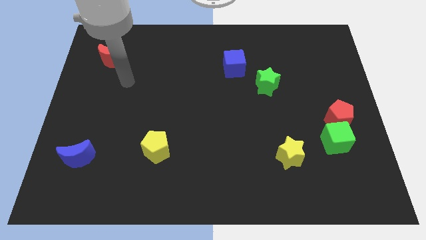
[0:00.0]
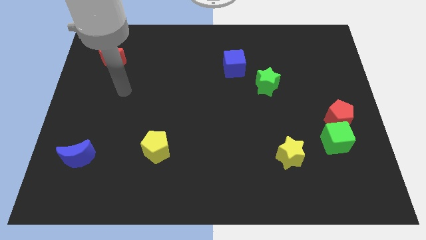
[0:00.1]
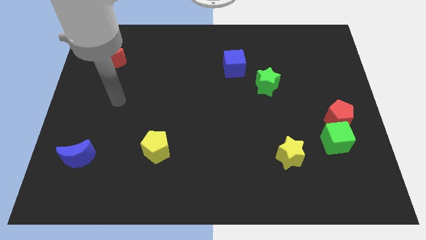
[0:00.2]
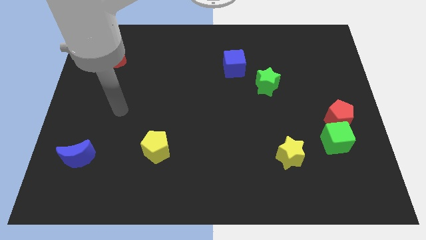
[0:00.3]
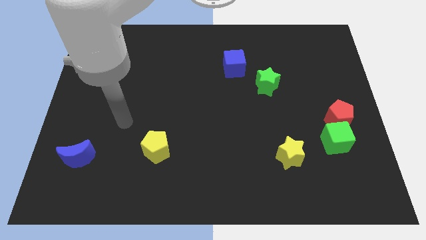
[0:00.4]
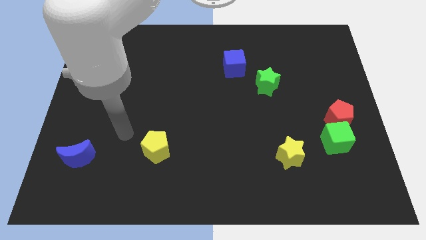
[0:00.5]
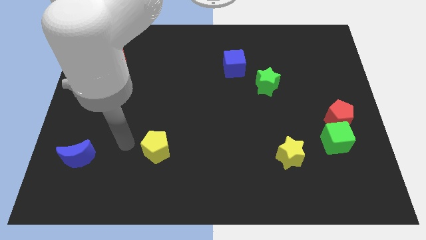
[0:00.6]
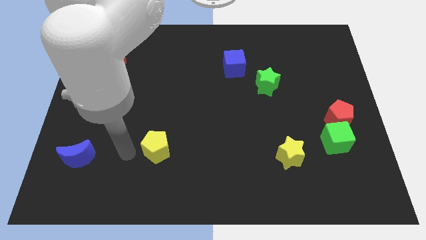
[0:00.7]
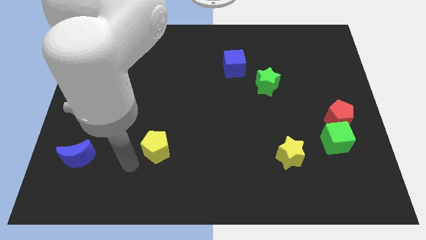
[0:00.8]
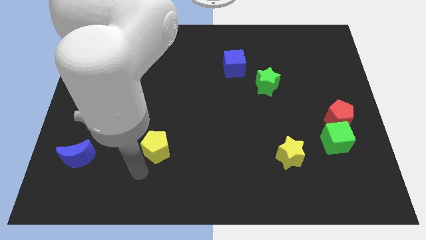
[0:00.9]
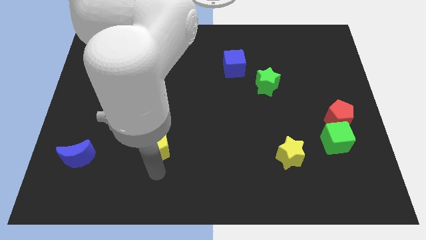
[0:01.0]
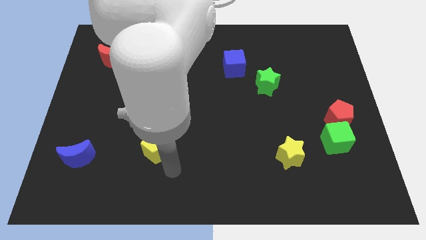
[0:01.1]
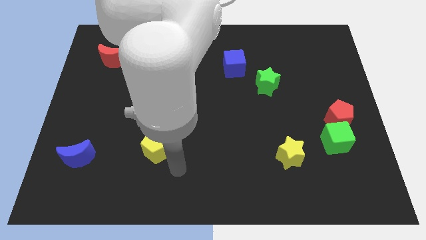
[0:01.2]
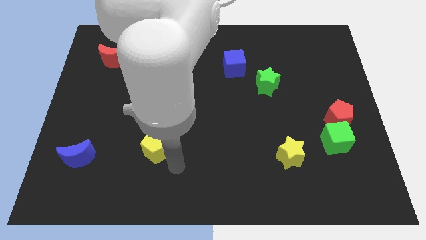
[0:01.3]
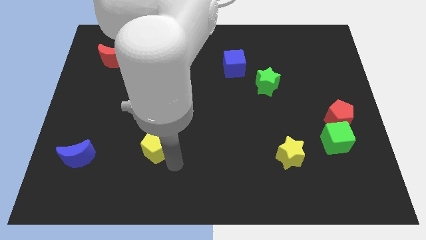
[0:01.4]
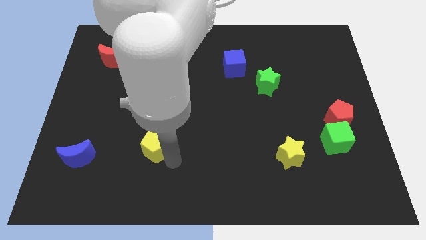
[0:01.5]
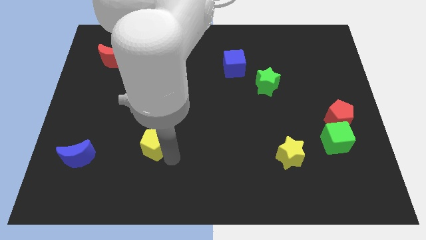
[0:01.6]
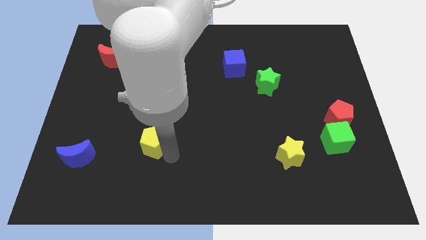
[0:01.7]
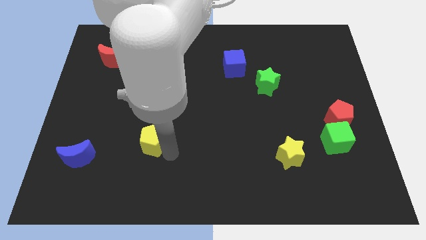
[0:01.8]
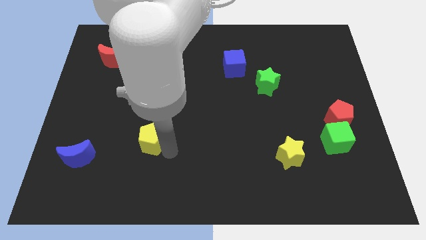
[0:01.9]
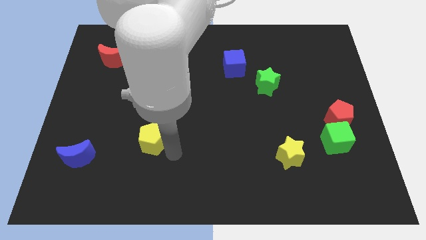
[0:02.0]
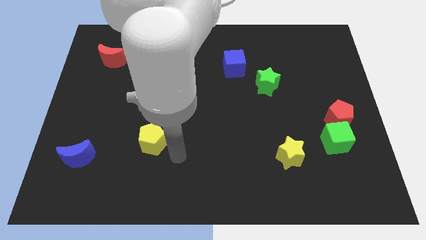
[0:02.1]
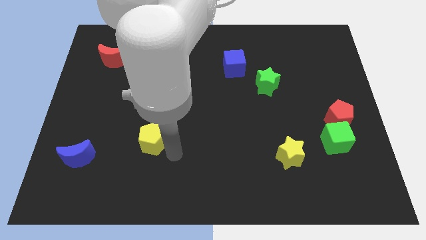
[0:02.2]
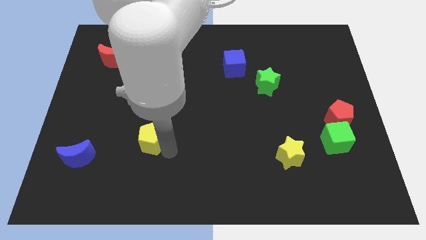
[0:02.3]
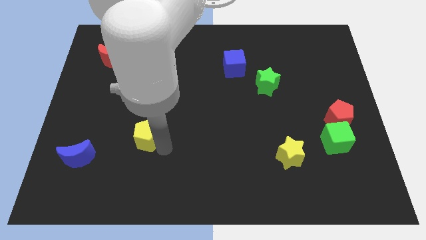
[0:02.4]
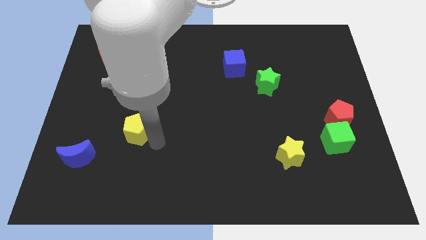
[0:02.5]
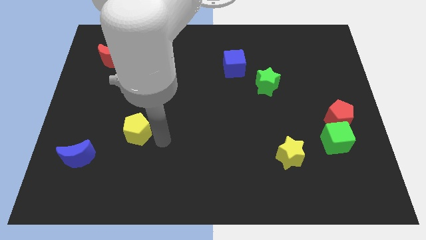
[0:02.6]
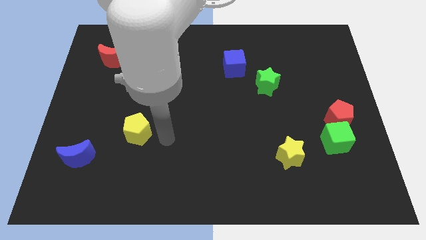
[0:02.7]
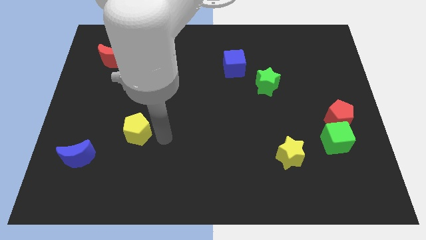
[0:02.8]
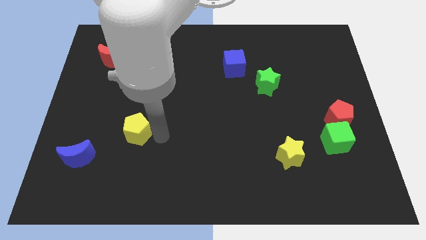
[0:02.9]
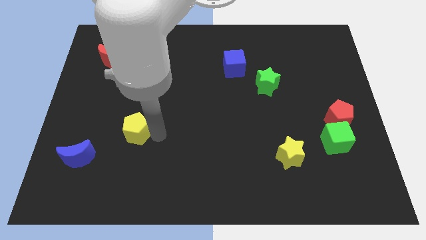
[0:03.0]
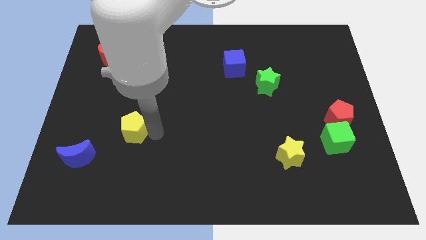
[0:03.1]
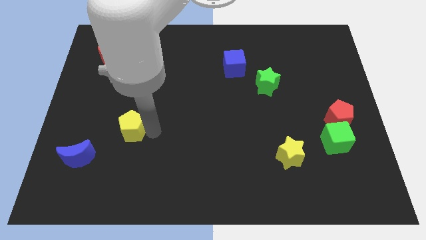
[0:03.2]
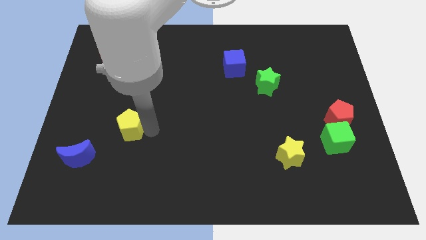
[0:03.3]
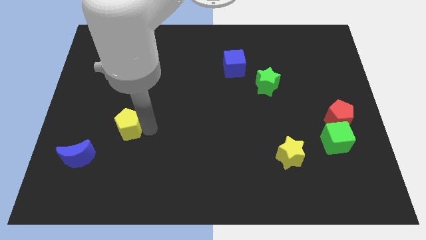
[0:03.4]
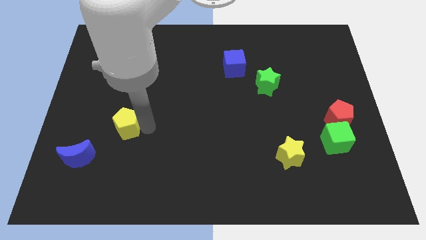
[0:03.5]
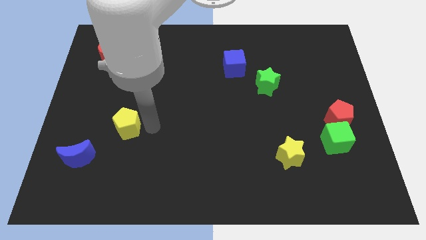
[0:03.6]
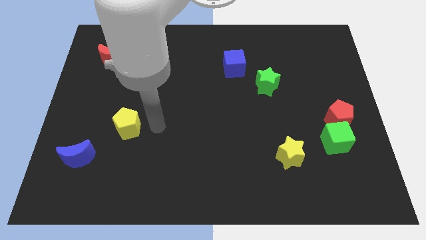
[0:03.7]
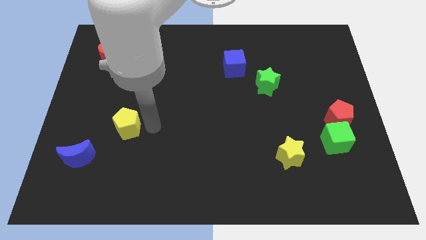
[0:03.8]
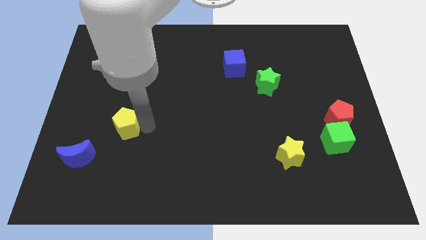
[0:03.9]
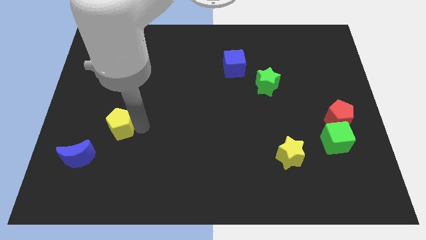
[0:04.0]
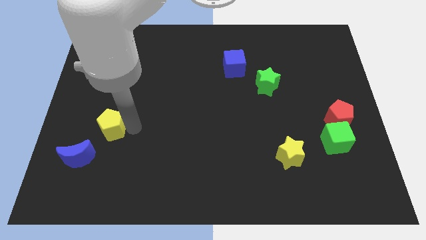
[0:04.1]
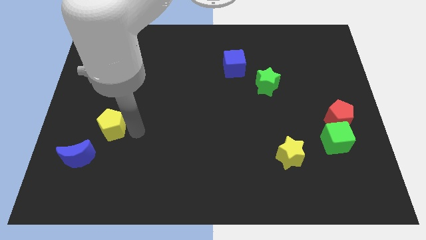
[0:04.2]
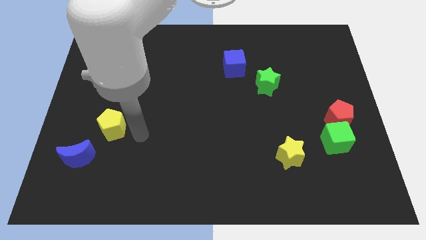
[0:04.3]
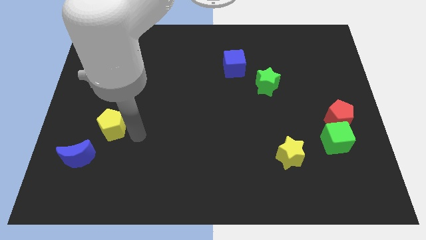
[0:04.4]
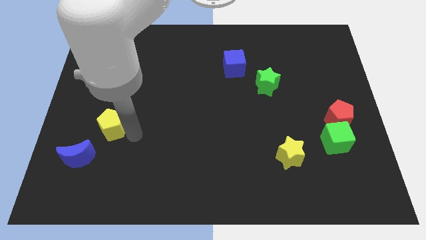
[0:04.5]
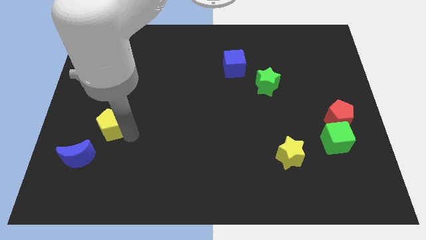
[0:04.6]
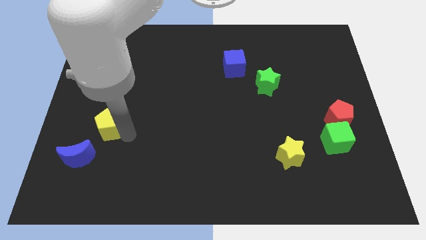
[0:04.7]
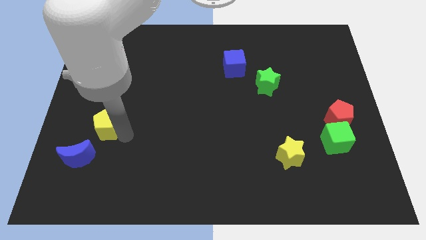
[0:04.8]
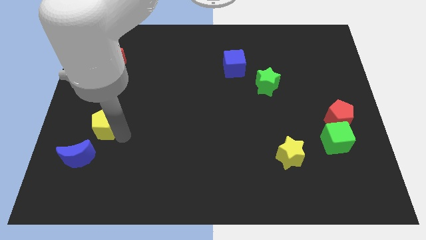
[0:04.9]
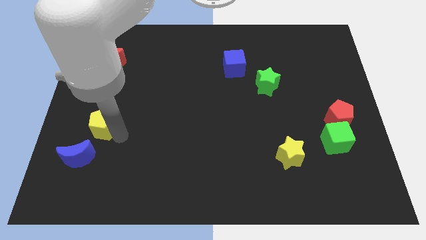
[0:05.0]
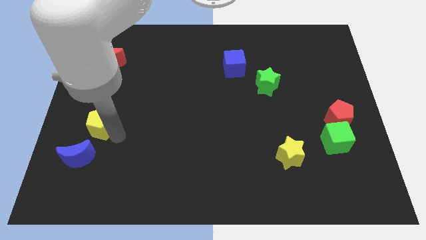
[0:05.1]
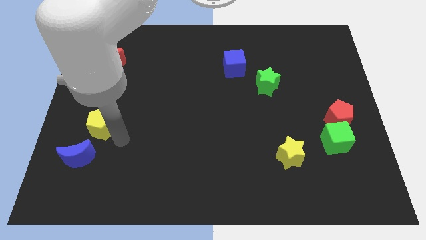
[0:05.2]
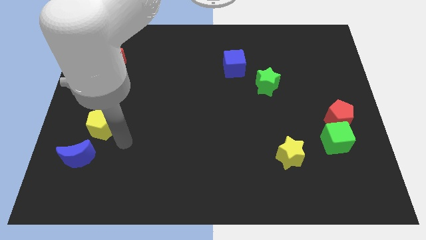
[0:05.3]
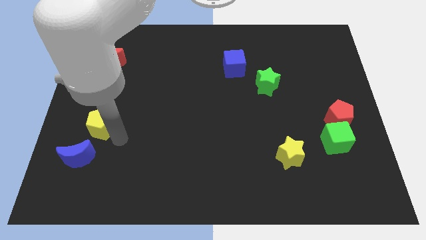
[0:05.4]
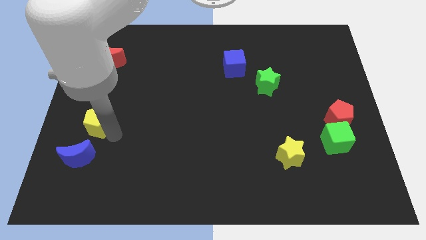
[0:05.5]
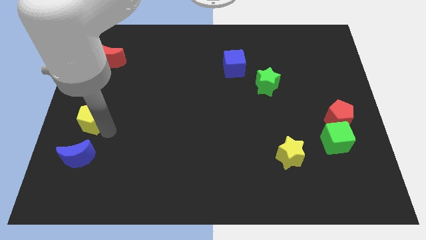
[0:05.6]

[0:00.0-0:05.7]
slide the yellow pentagon to the left side

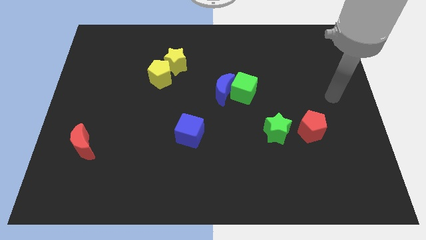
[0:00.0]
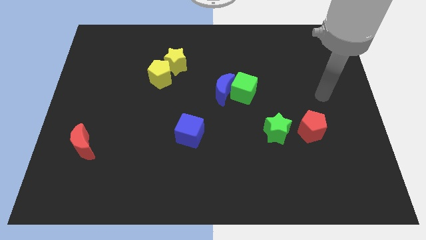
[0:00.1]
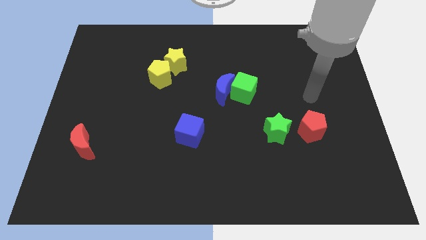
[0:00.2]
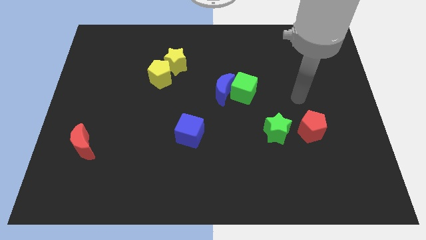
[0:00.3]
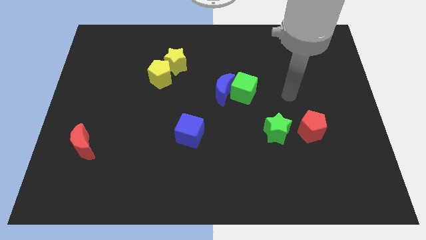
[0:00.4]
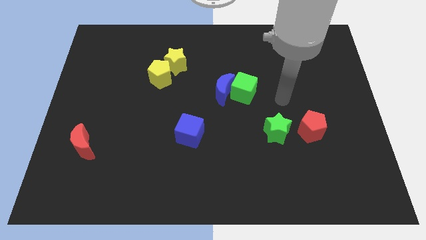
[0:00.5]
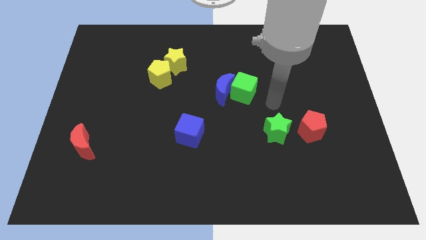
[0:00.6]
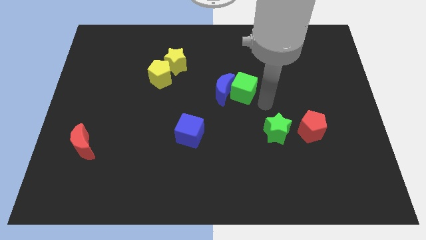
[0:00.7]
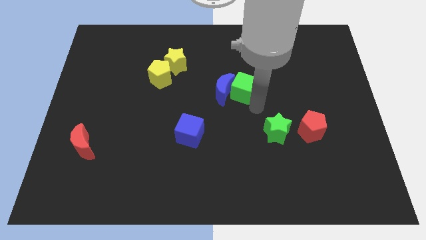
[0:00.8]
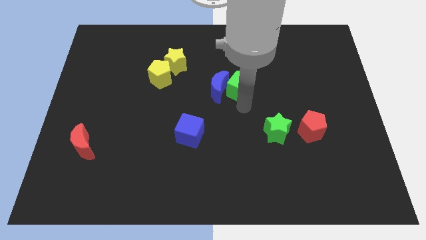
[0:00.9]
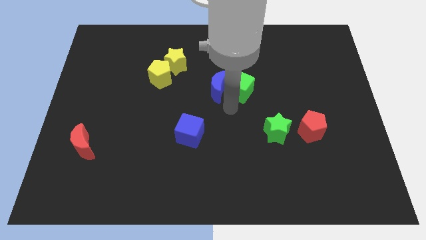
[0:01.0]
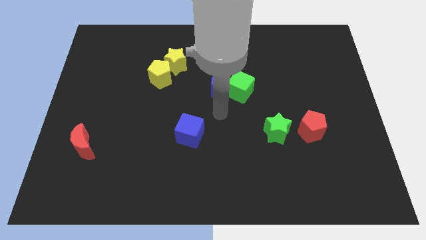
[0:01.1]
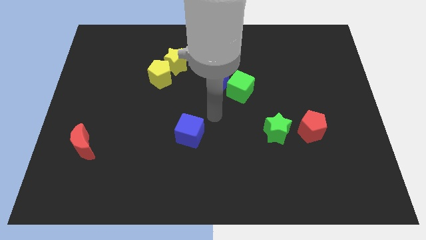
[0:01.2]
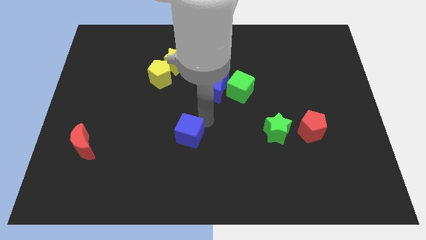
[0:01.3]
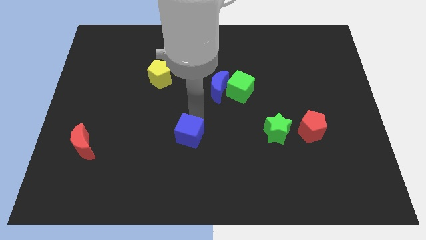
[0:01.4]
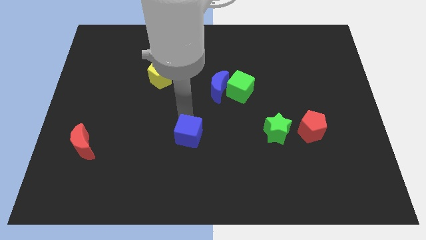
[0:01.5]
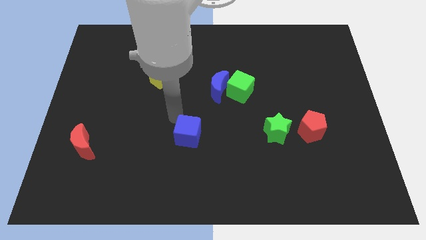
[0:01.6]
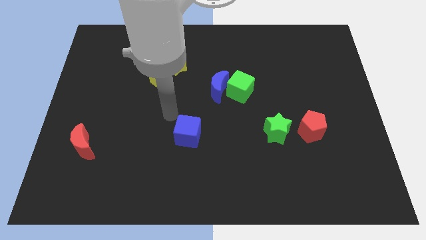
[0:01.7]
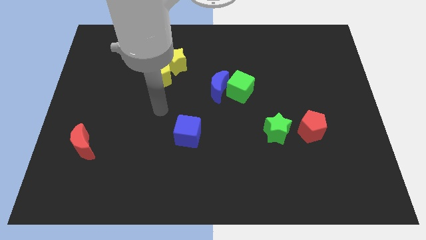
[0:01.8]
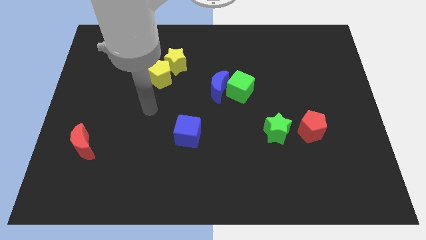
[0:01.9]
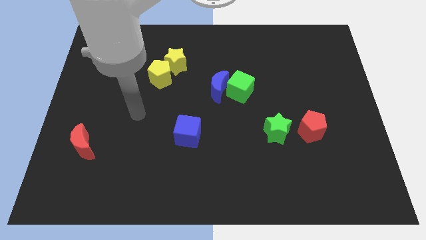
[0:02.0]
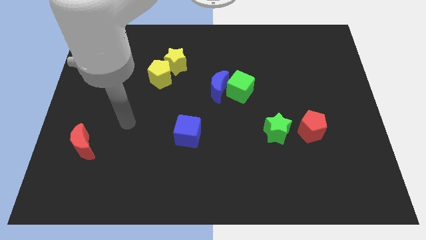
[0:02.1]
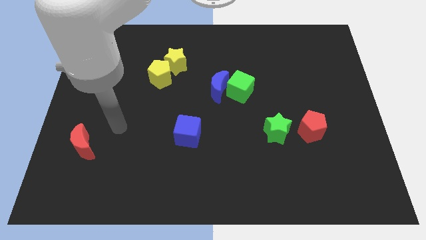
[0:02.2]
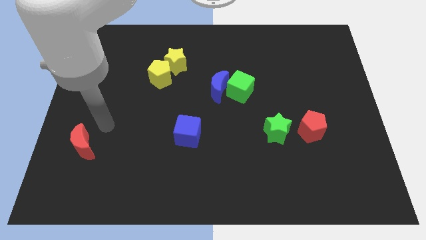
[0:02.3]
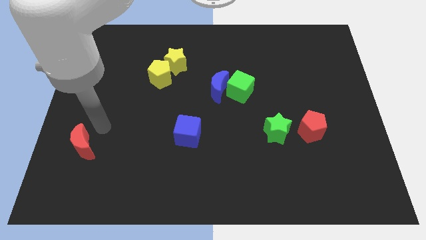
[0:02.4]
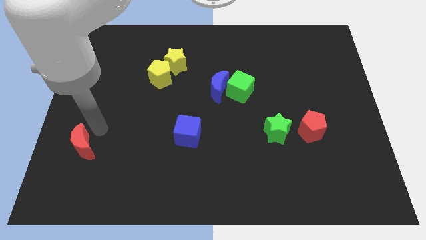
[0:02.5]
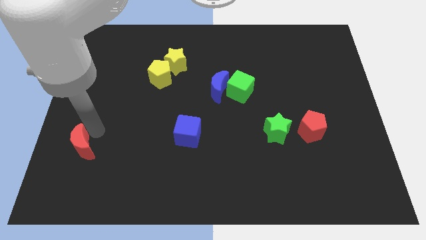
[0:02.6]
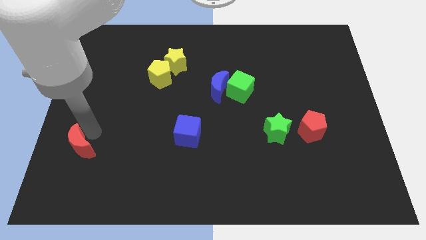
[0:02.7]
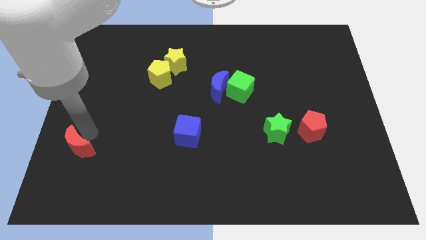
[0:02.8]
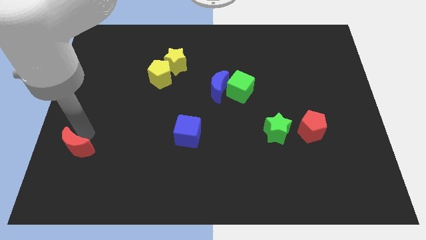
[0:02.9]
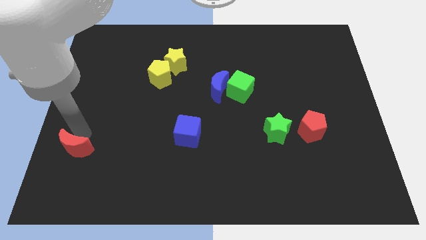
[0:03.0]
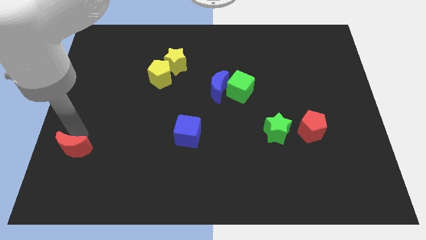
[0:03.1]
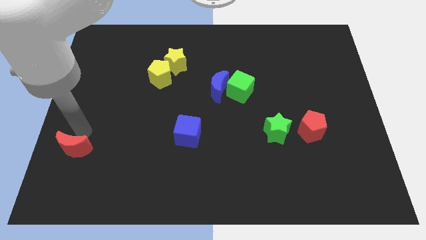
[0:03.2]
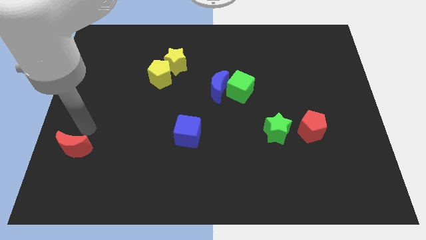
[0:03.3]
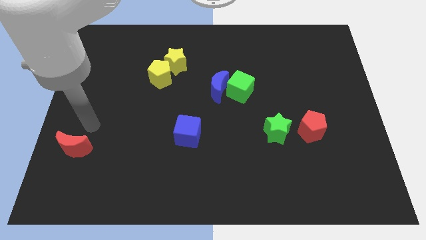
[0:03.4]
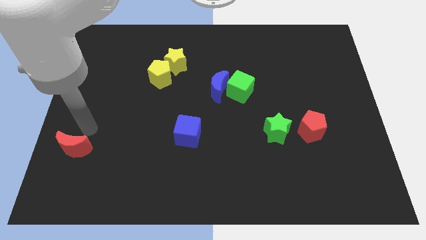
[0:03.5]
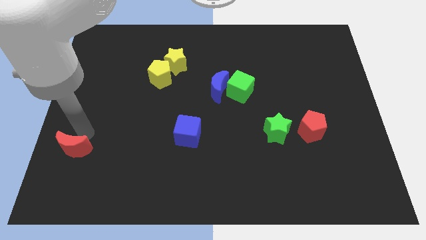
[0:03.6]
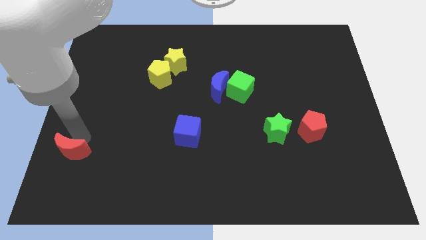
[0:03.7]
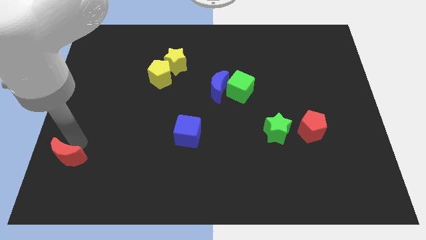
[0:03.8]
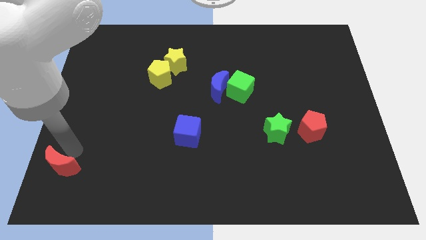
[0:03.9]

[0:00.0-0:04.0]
put the red moon to the bottom left corner
